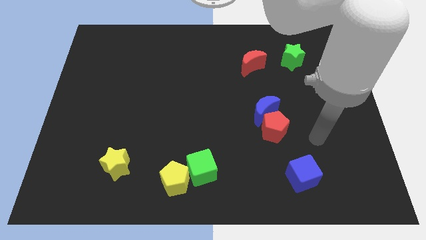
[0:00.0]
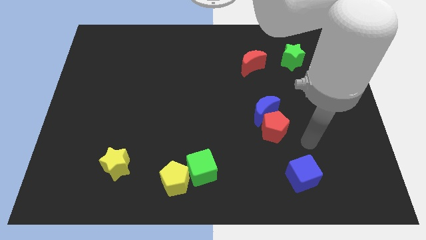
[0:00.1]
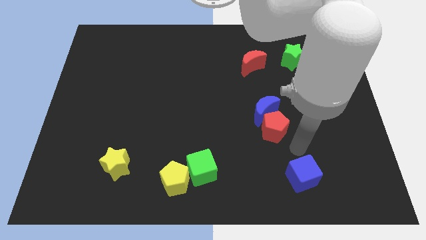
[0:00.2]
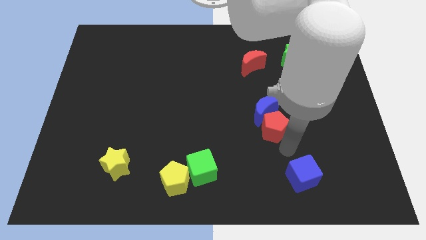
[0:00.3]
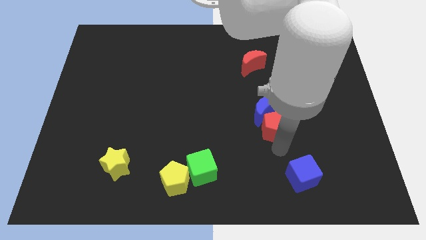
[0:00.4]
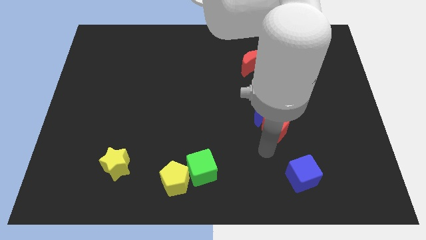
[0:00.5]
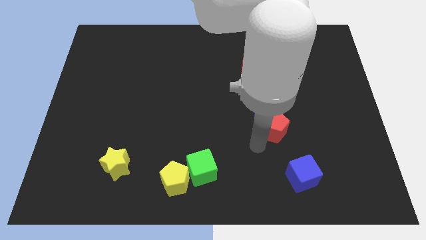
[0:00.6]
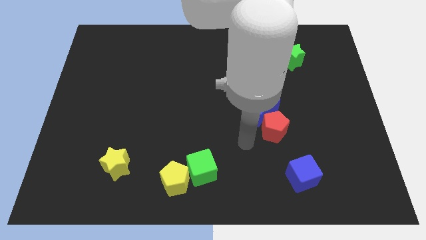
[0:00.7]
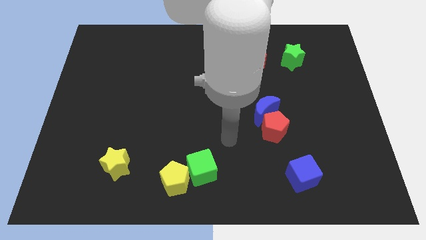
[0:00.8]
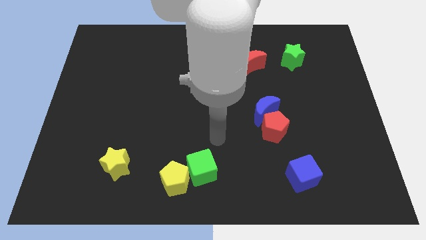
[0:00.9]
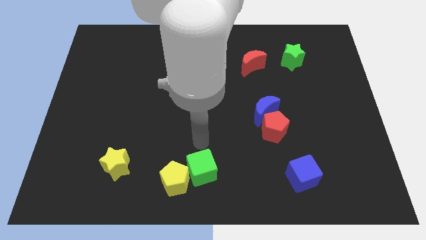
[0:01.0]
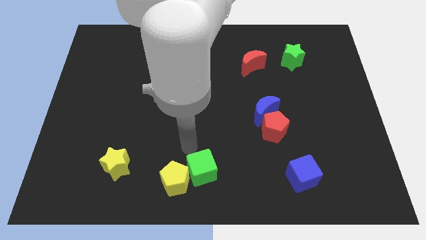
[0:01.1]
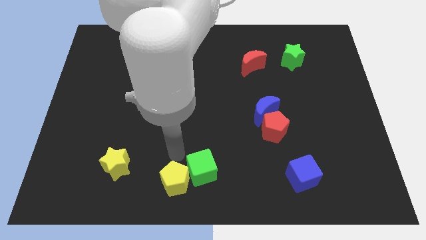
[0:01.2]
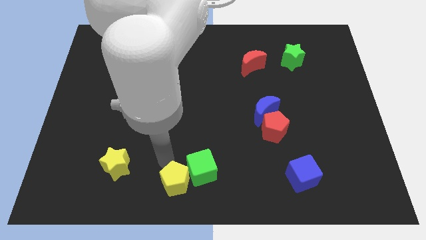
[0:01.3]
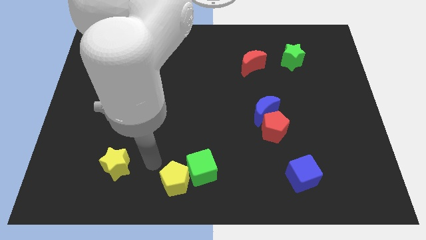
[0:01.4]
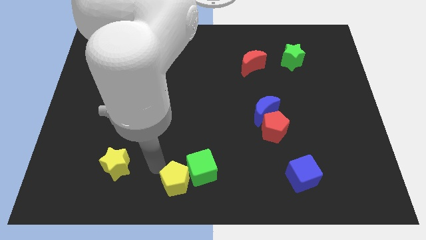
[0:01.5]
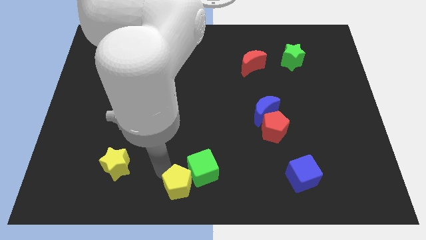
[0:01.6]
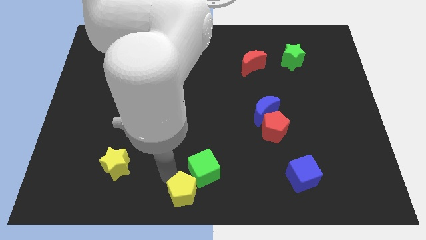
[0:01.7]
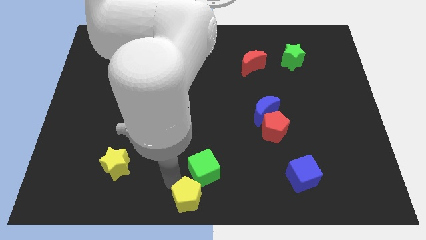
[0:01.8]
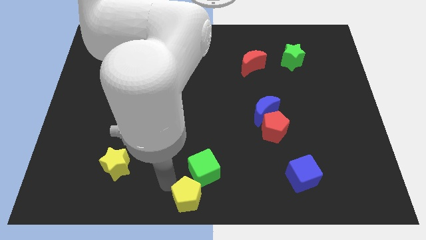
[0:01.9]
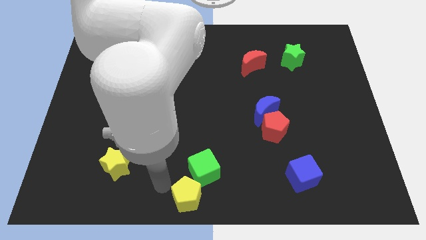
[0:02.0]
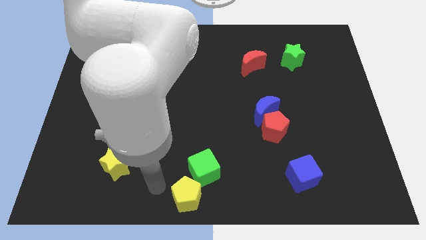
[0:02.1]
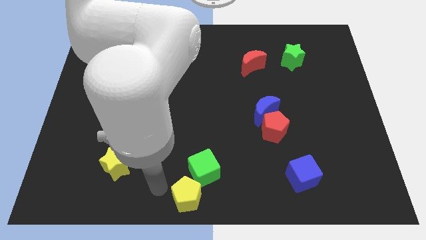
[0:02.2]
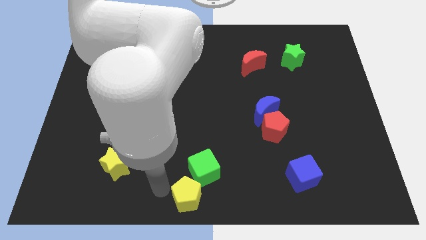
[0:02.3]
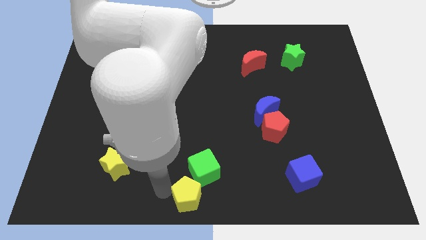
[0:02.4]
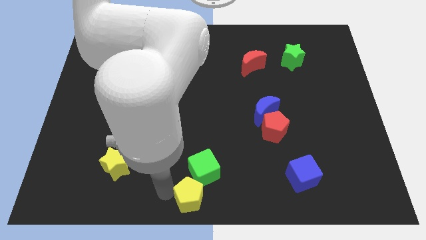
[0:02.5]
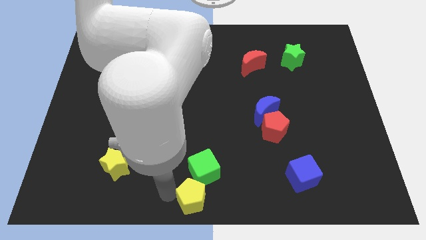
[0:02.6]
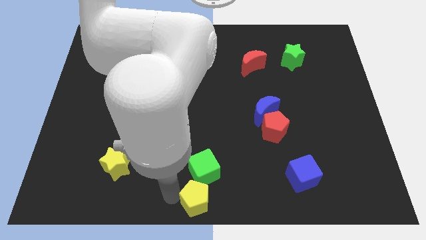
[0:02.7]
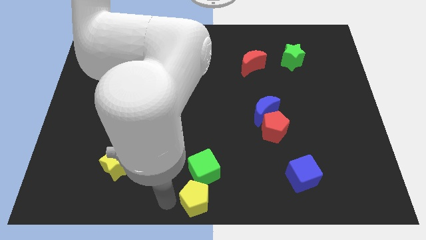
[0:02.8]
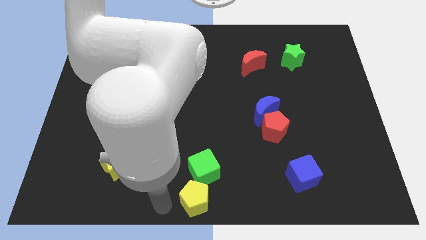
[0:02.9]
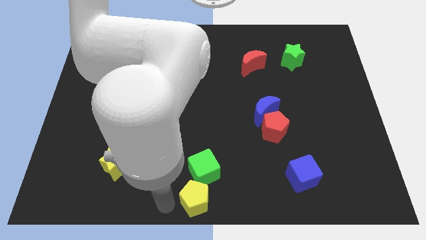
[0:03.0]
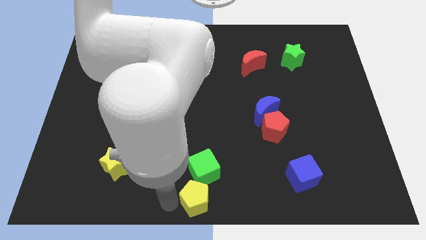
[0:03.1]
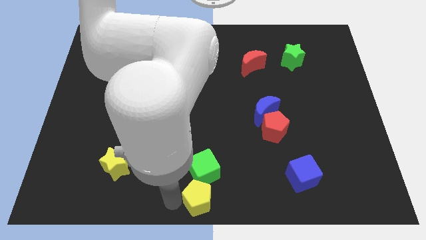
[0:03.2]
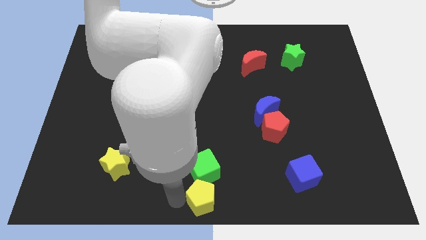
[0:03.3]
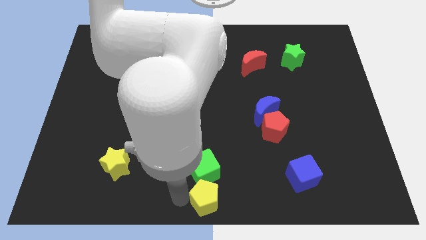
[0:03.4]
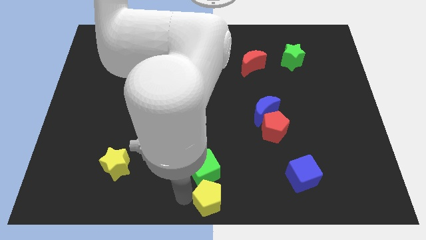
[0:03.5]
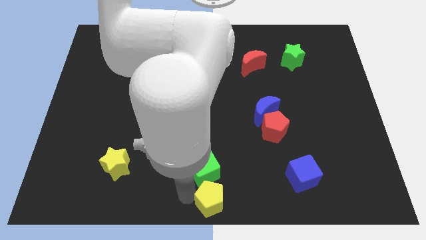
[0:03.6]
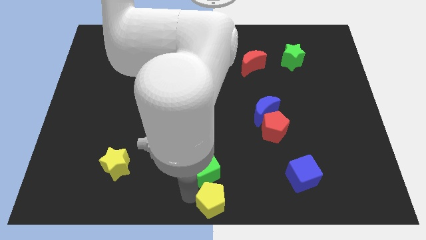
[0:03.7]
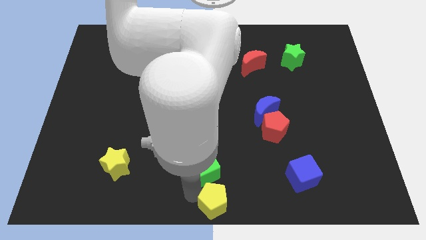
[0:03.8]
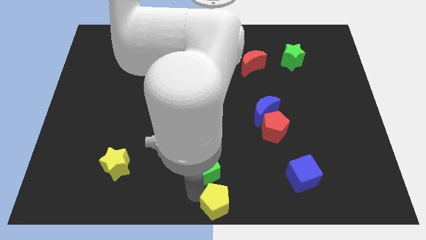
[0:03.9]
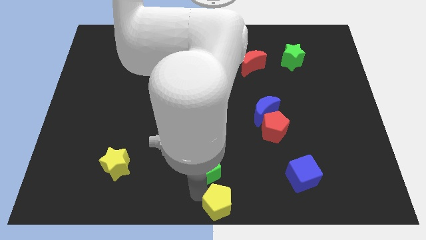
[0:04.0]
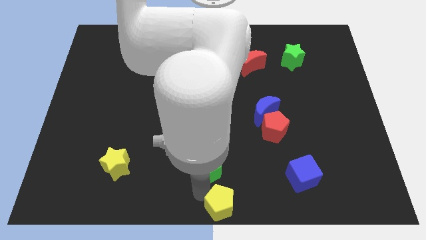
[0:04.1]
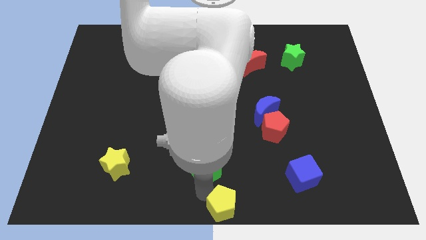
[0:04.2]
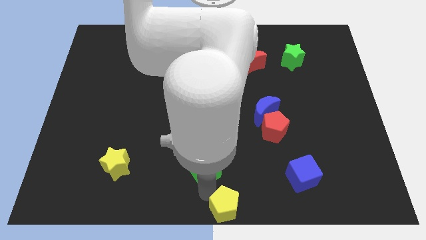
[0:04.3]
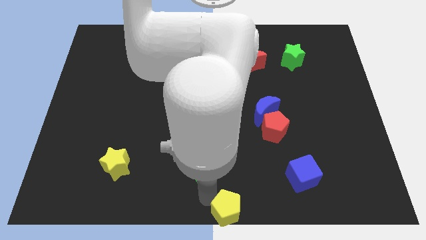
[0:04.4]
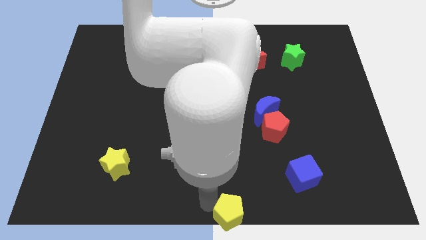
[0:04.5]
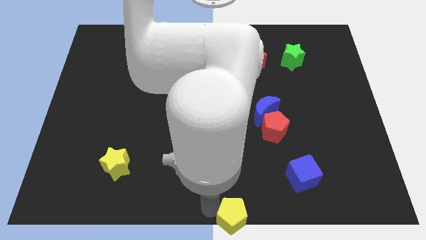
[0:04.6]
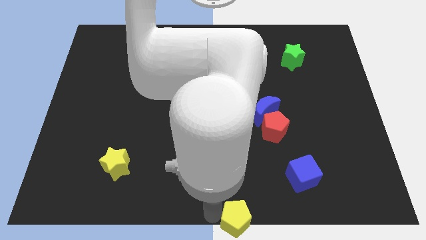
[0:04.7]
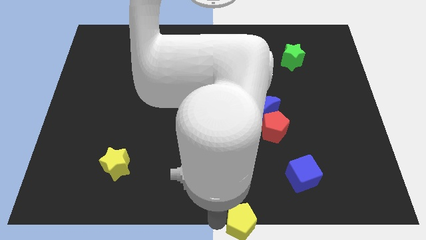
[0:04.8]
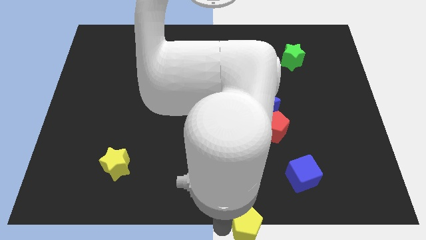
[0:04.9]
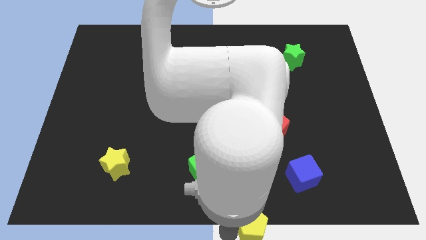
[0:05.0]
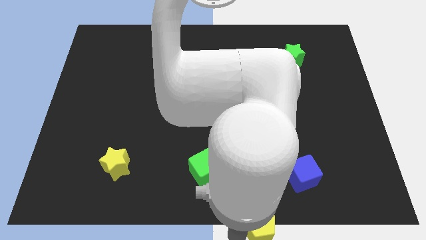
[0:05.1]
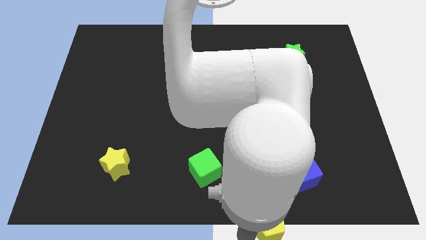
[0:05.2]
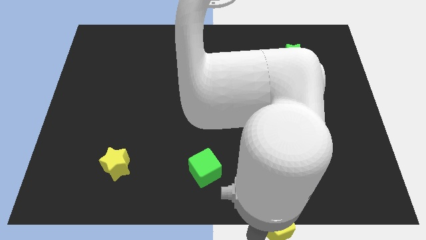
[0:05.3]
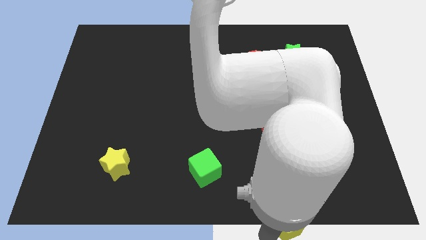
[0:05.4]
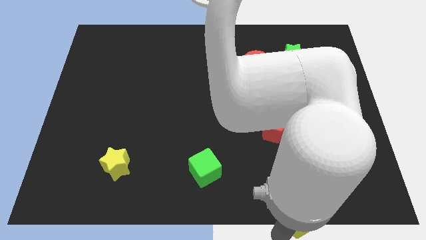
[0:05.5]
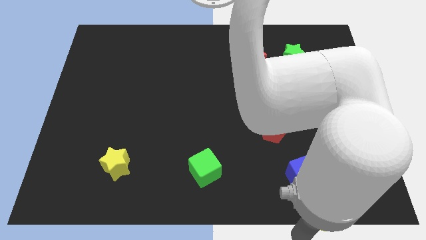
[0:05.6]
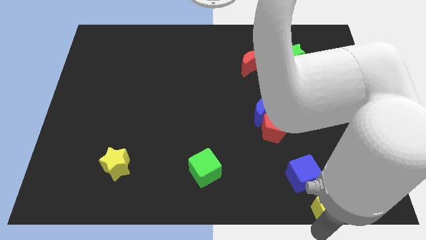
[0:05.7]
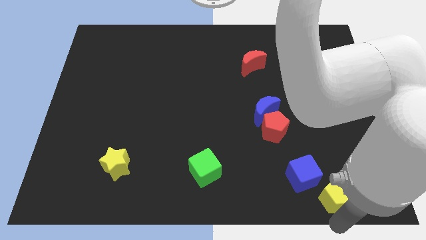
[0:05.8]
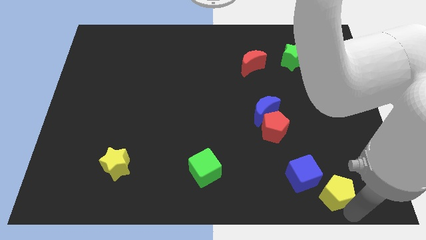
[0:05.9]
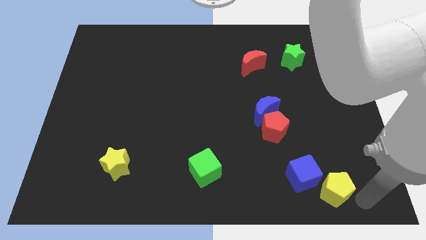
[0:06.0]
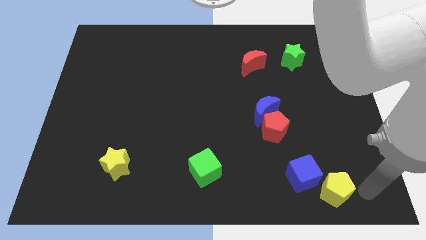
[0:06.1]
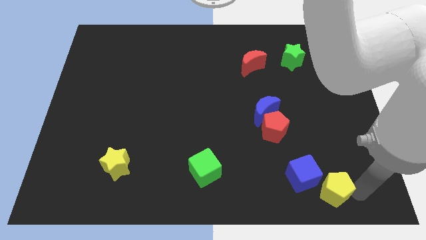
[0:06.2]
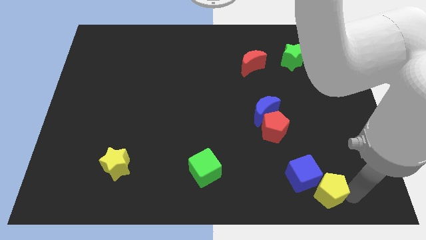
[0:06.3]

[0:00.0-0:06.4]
push the yellow pentagon close to the blue cube

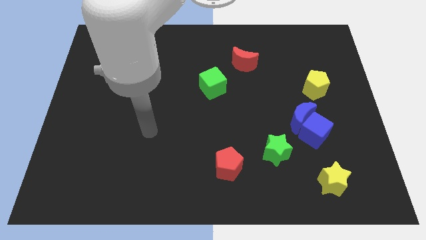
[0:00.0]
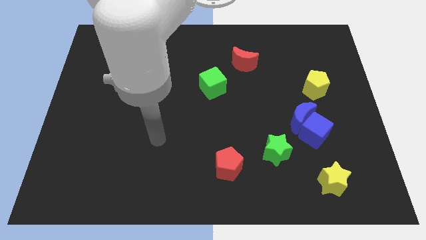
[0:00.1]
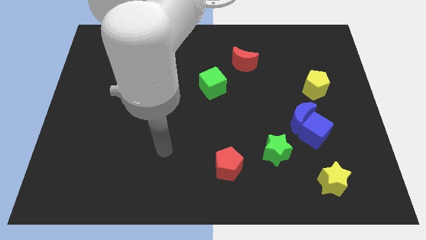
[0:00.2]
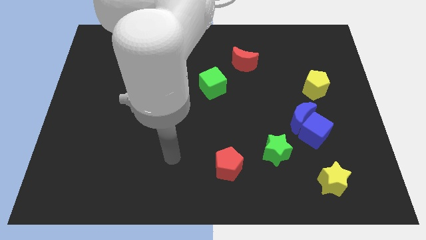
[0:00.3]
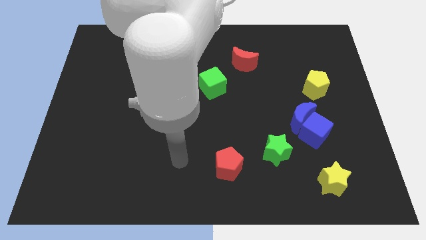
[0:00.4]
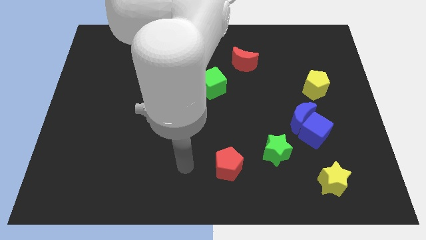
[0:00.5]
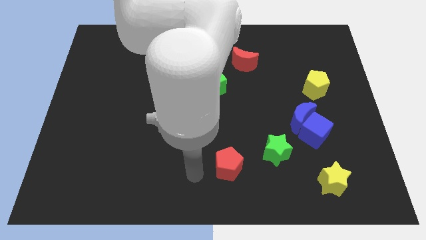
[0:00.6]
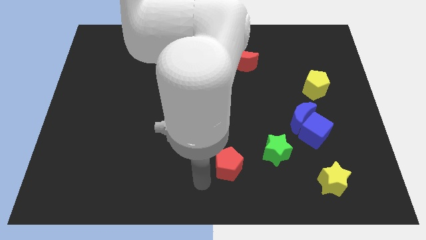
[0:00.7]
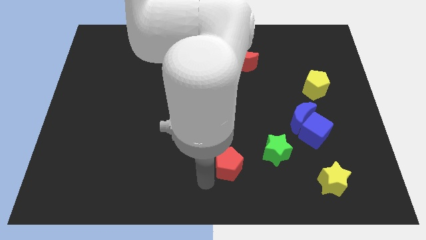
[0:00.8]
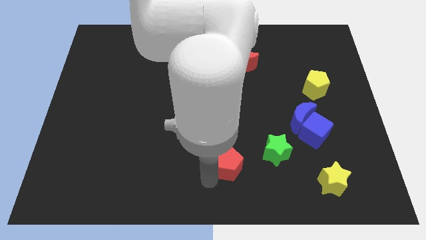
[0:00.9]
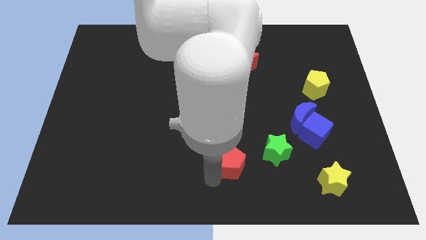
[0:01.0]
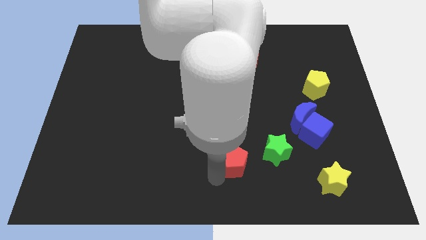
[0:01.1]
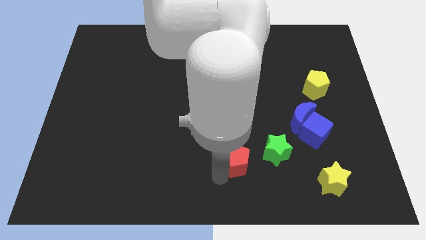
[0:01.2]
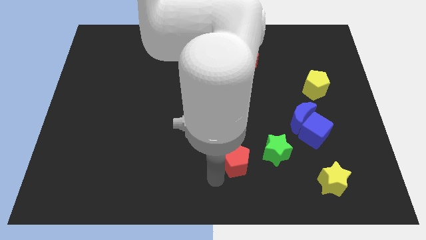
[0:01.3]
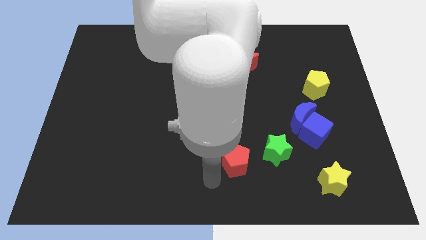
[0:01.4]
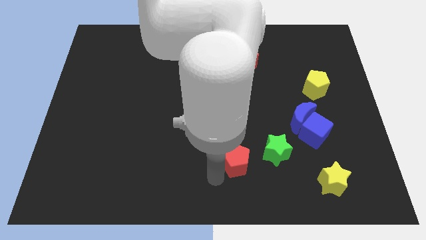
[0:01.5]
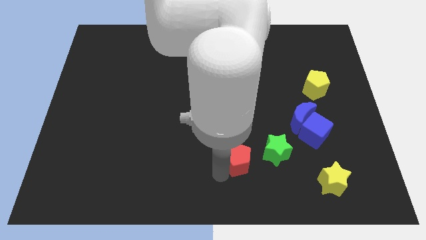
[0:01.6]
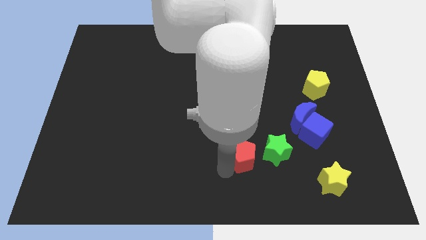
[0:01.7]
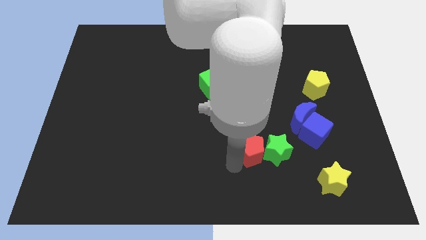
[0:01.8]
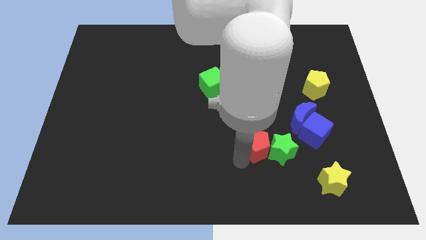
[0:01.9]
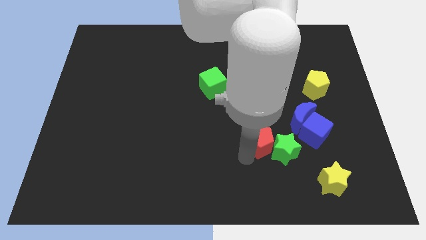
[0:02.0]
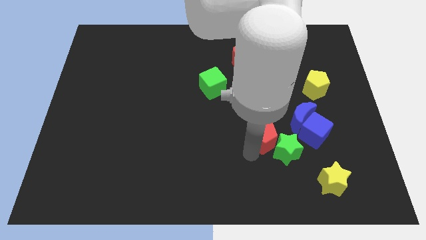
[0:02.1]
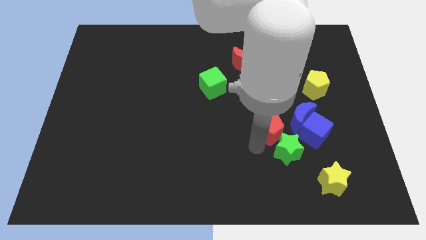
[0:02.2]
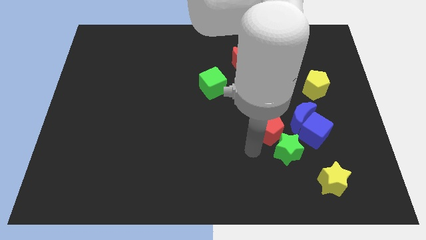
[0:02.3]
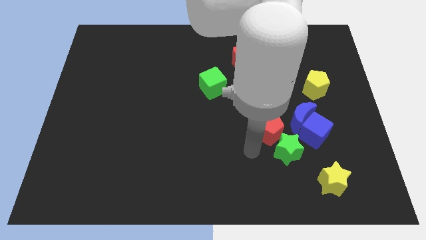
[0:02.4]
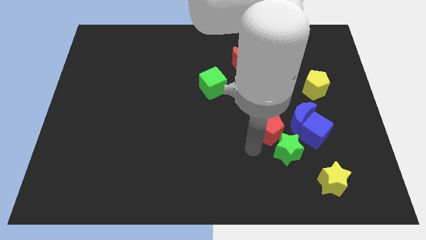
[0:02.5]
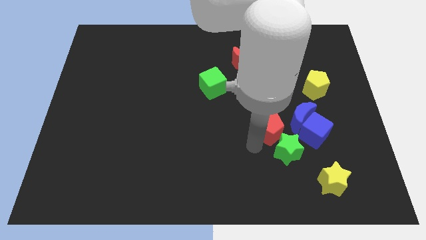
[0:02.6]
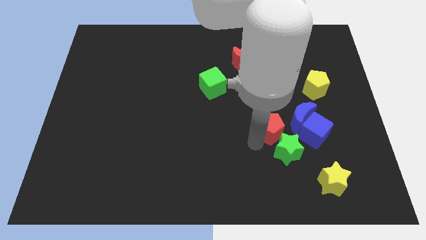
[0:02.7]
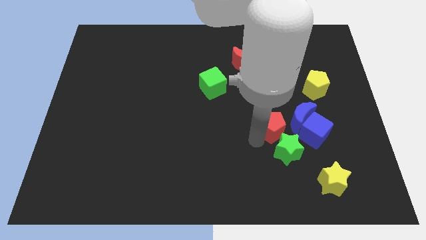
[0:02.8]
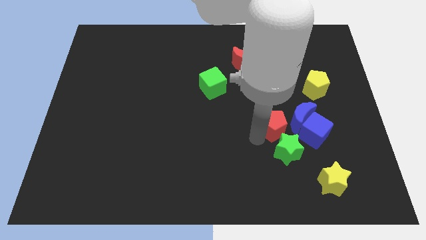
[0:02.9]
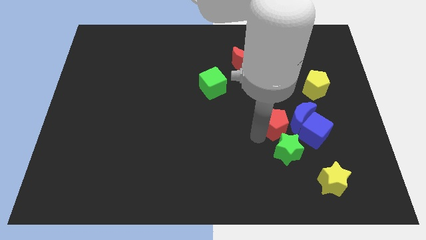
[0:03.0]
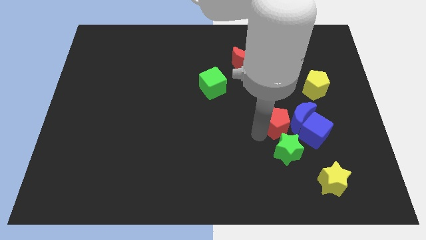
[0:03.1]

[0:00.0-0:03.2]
slide the red pentagon next to the blue moon
